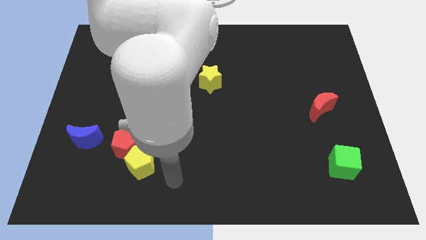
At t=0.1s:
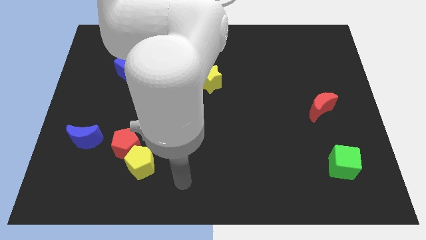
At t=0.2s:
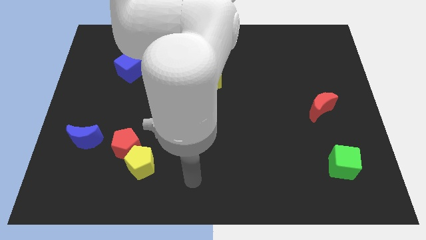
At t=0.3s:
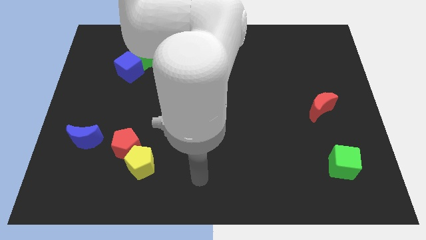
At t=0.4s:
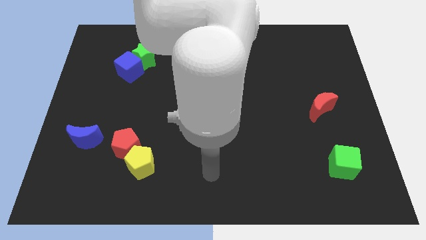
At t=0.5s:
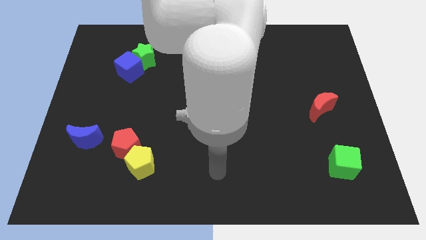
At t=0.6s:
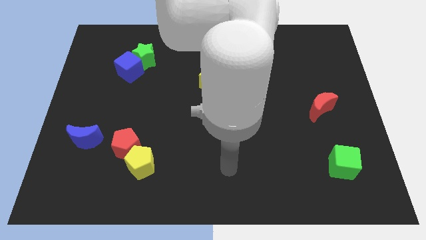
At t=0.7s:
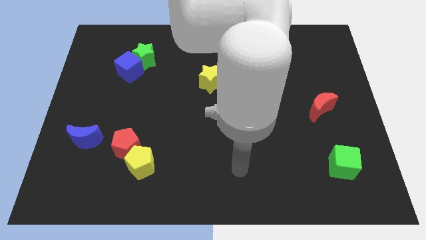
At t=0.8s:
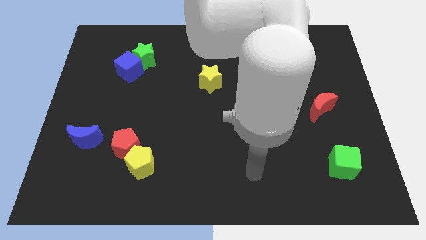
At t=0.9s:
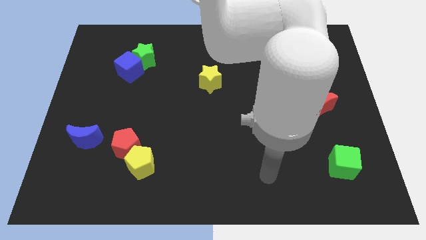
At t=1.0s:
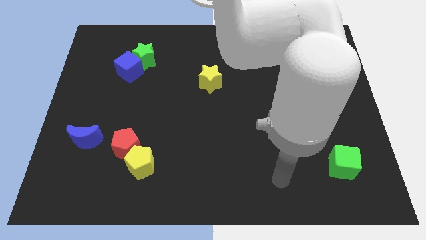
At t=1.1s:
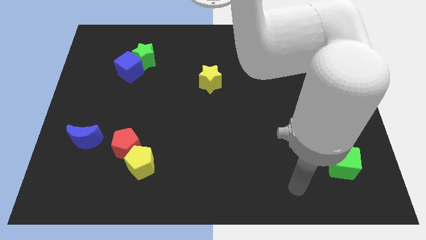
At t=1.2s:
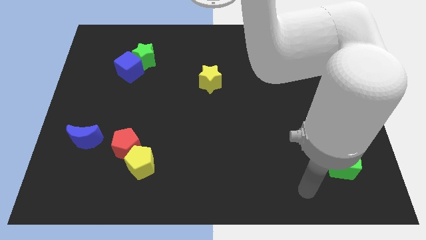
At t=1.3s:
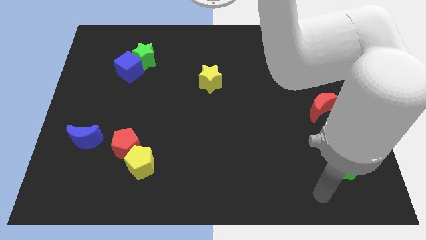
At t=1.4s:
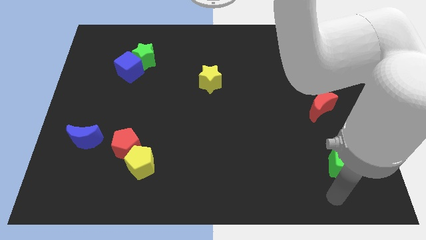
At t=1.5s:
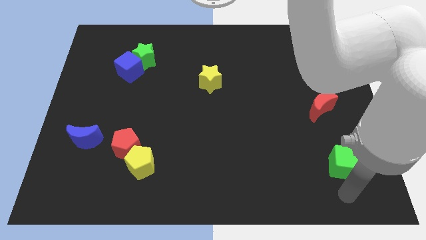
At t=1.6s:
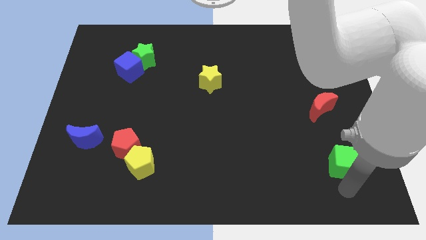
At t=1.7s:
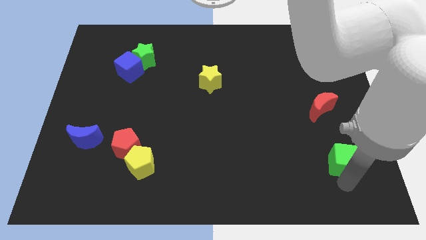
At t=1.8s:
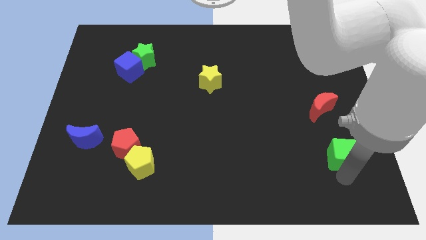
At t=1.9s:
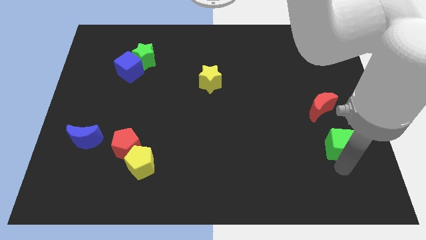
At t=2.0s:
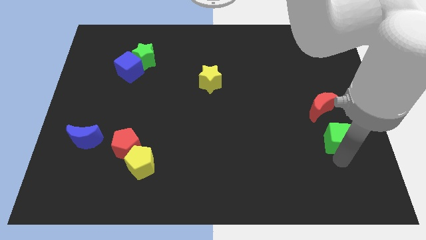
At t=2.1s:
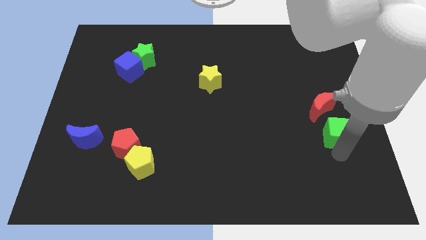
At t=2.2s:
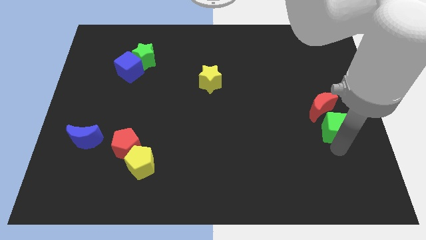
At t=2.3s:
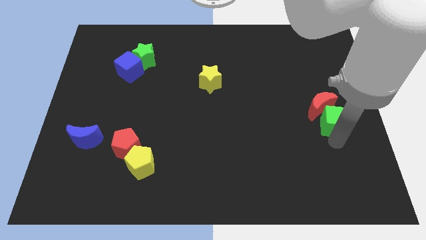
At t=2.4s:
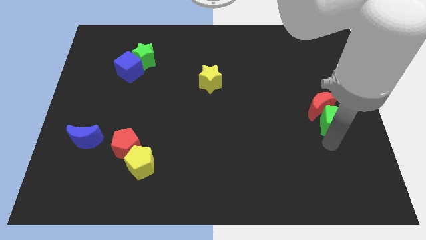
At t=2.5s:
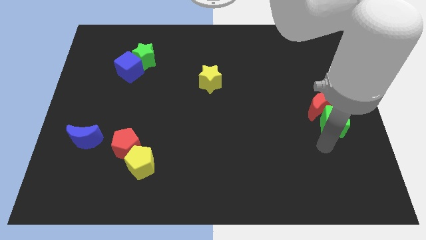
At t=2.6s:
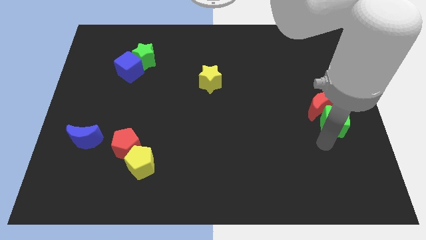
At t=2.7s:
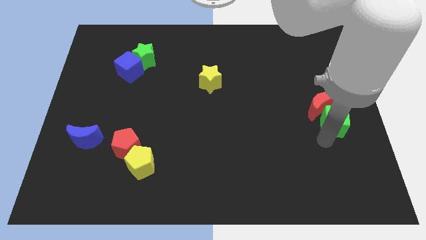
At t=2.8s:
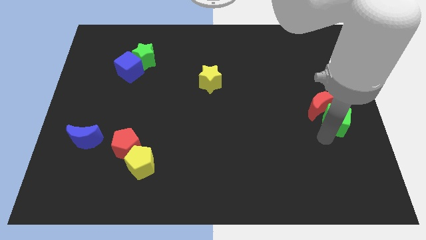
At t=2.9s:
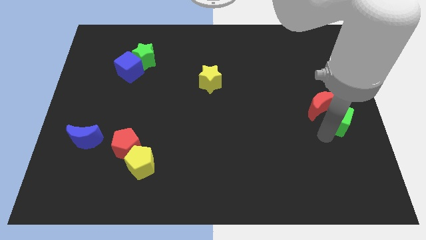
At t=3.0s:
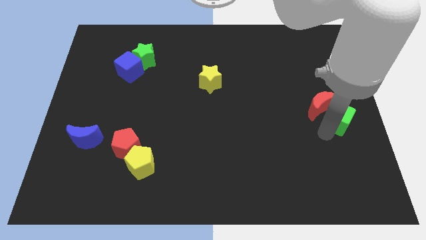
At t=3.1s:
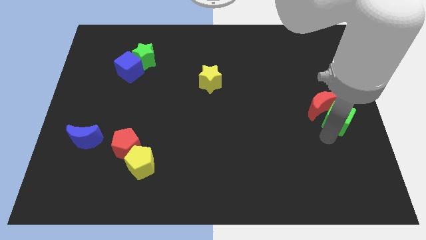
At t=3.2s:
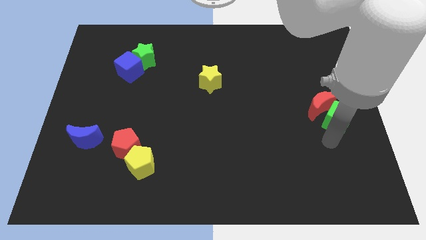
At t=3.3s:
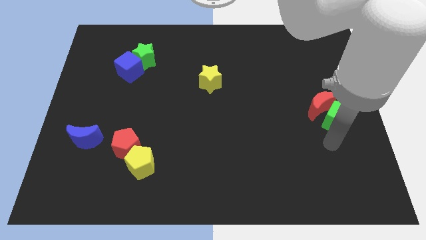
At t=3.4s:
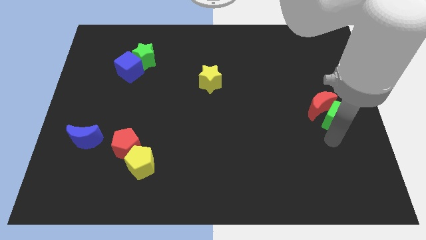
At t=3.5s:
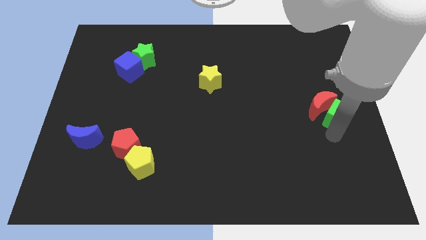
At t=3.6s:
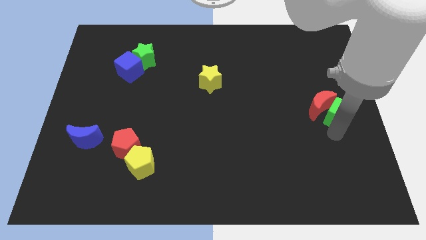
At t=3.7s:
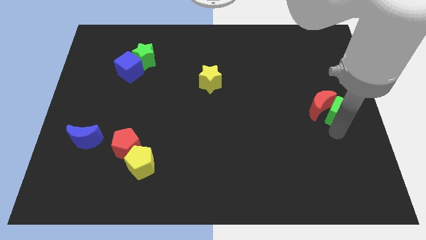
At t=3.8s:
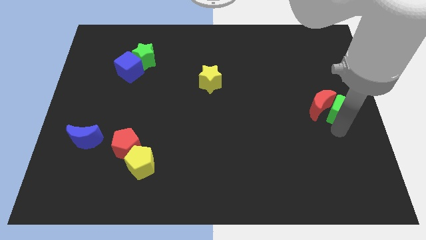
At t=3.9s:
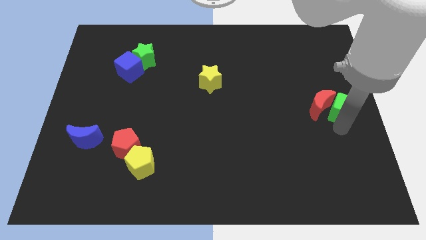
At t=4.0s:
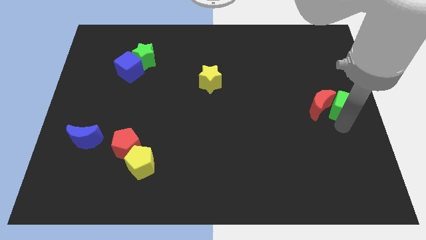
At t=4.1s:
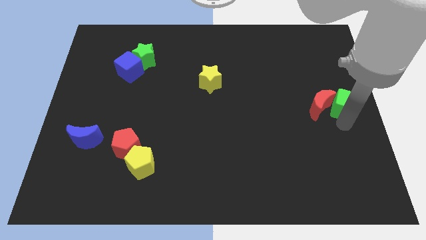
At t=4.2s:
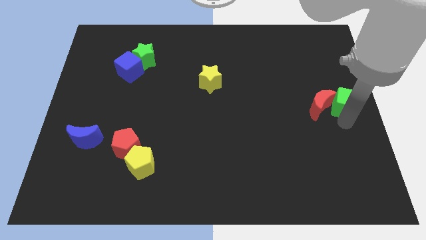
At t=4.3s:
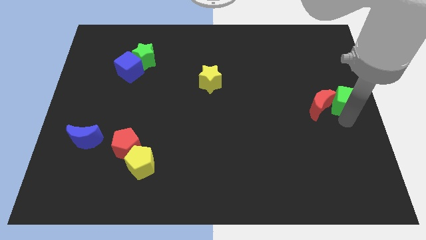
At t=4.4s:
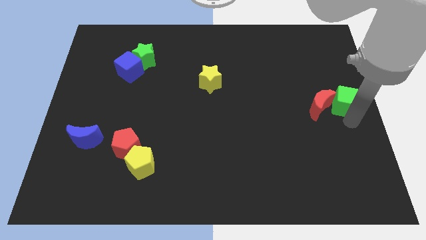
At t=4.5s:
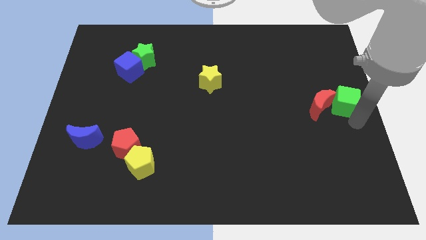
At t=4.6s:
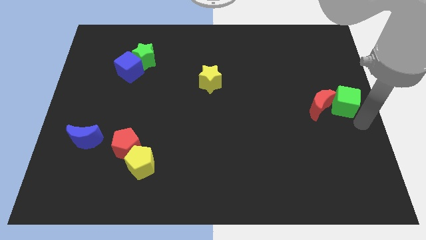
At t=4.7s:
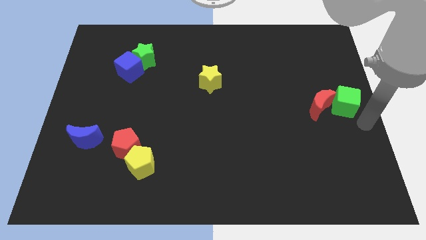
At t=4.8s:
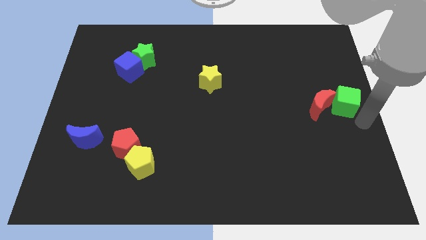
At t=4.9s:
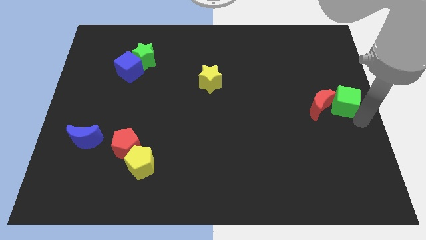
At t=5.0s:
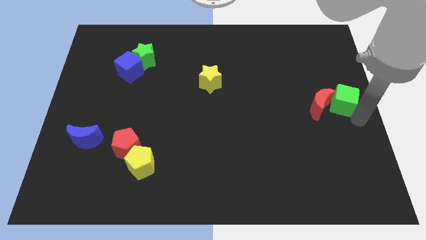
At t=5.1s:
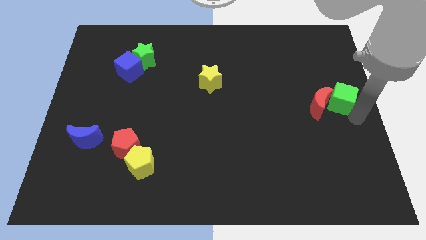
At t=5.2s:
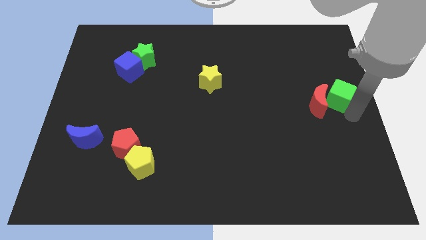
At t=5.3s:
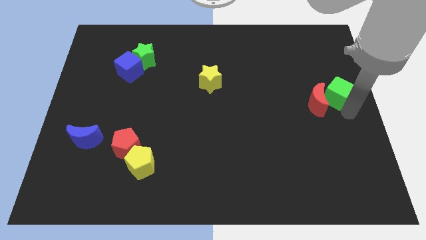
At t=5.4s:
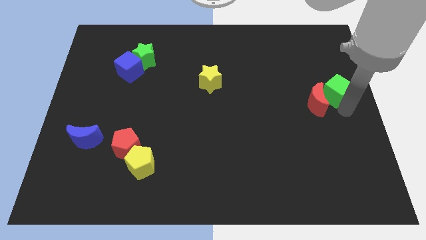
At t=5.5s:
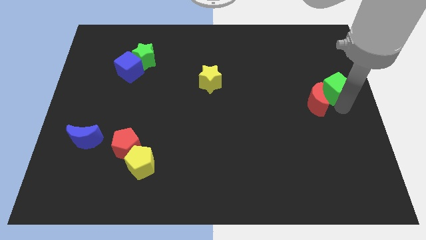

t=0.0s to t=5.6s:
move the green cube up

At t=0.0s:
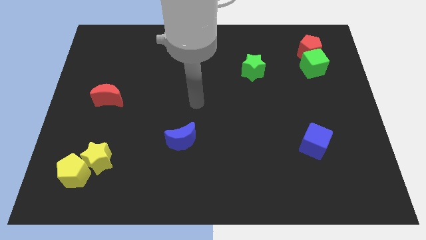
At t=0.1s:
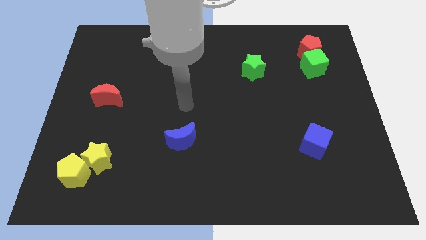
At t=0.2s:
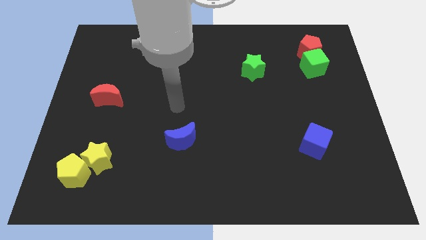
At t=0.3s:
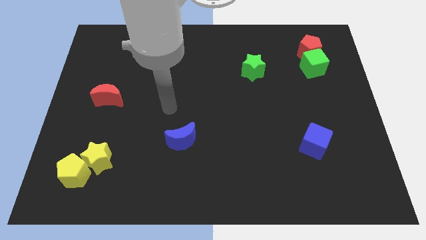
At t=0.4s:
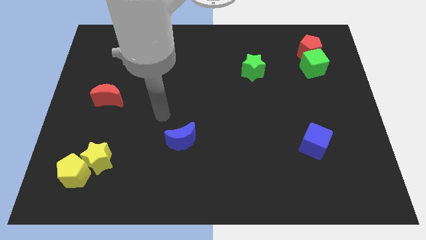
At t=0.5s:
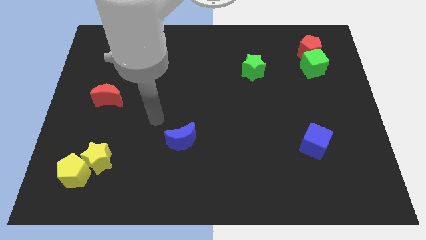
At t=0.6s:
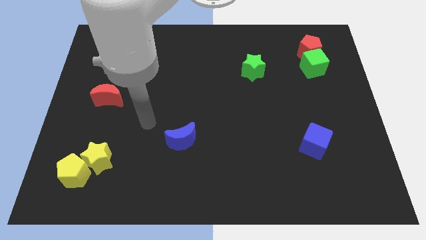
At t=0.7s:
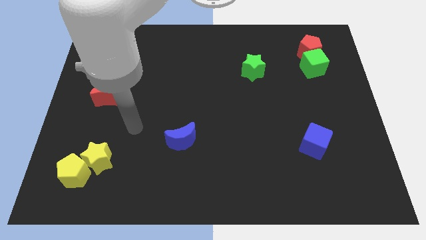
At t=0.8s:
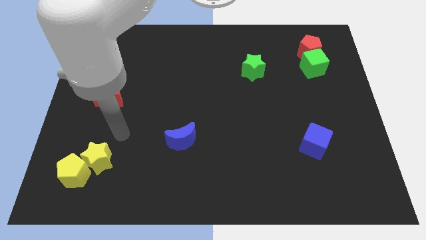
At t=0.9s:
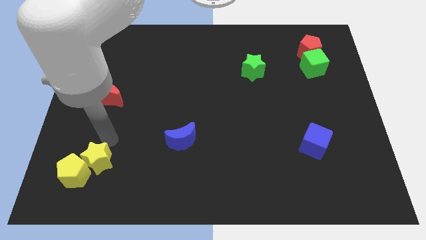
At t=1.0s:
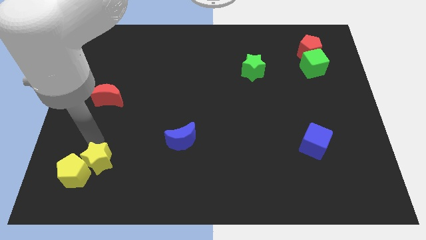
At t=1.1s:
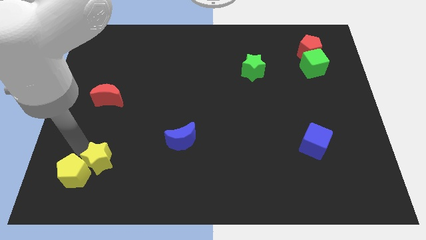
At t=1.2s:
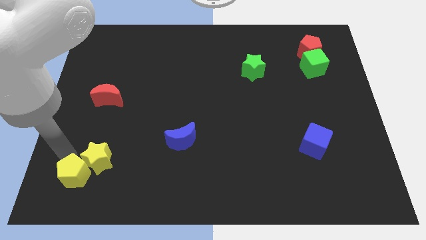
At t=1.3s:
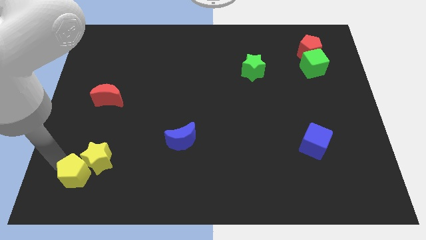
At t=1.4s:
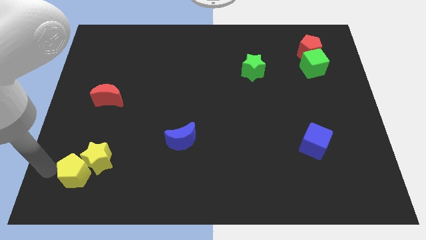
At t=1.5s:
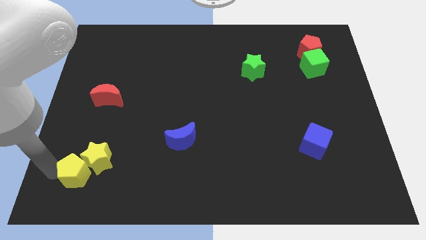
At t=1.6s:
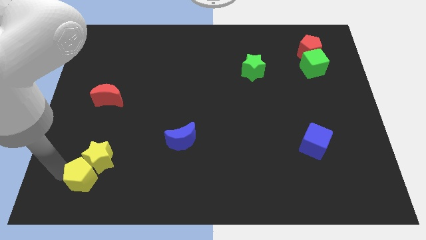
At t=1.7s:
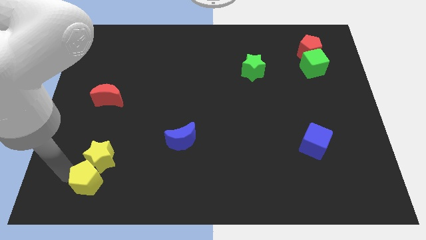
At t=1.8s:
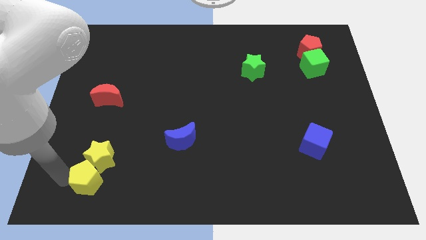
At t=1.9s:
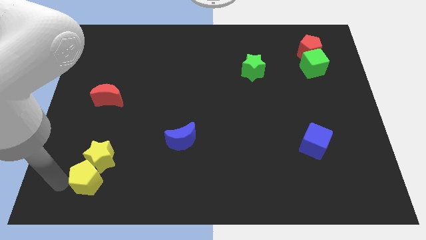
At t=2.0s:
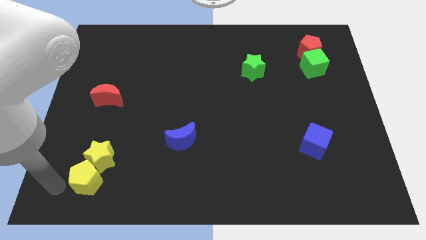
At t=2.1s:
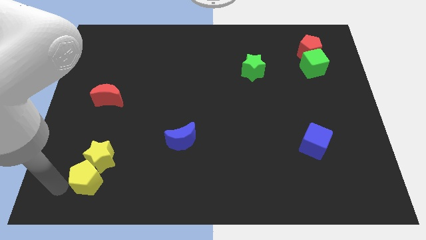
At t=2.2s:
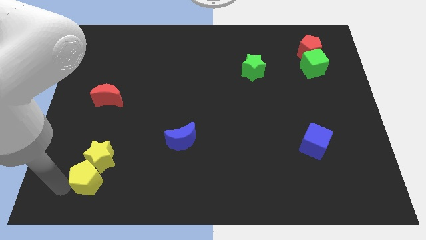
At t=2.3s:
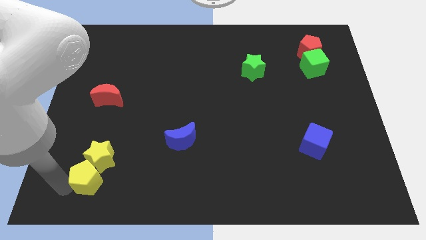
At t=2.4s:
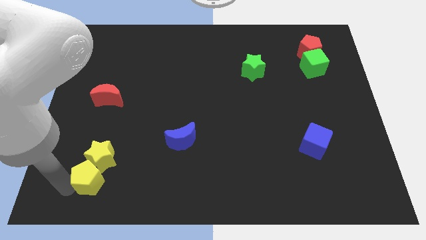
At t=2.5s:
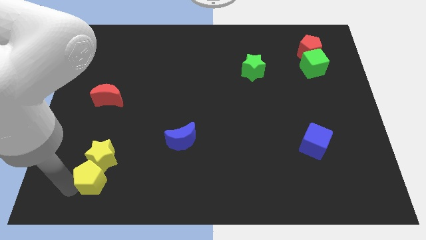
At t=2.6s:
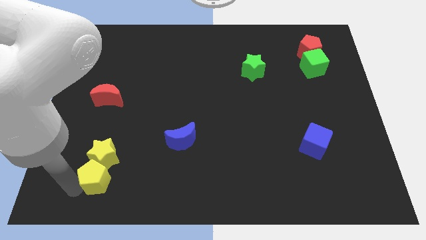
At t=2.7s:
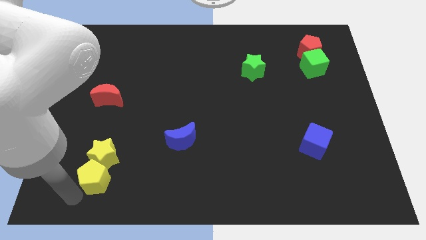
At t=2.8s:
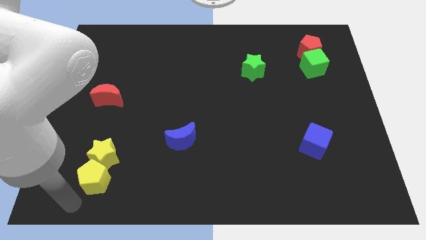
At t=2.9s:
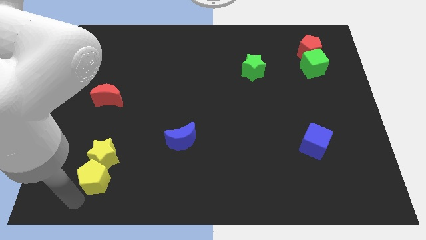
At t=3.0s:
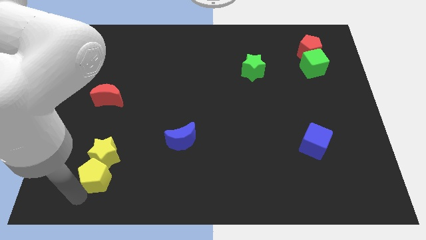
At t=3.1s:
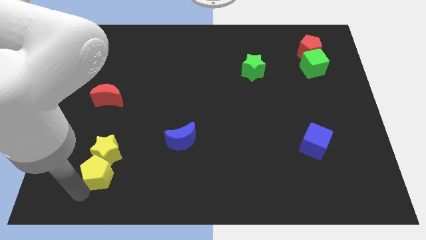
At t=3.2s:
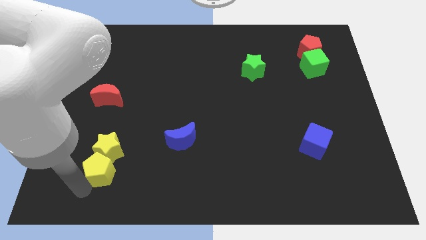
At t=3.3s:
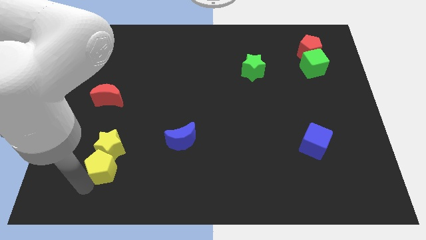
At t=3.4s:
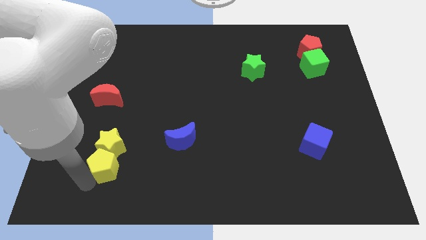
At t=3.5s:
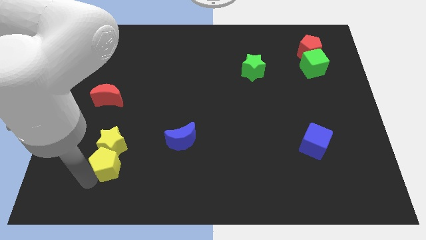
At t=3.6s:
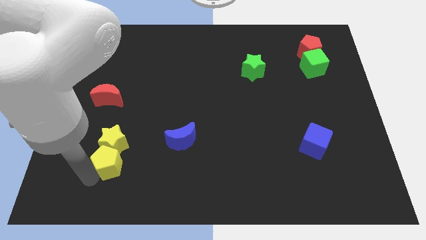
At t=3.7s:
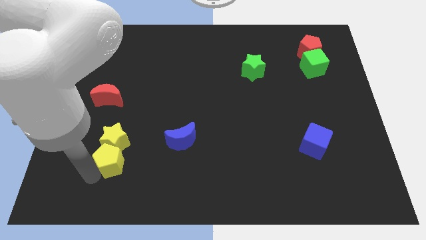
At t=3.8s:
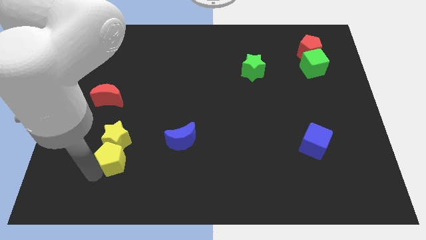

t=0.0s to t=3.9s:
slightly move the yellow pentagon upwards and right diagonally
